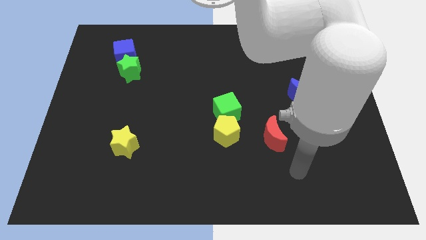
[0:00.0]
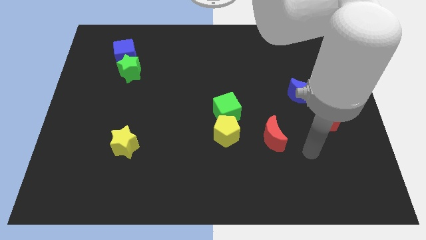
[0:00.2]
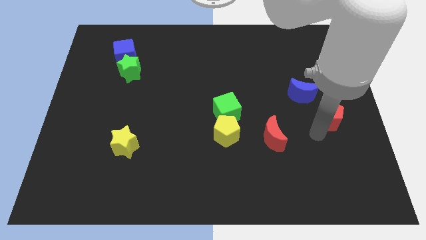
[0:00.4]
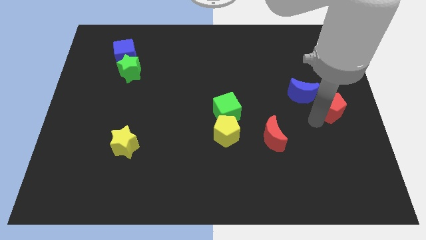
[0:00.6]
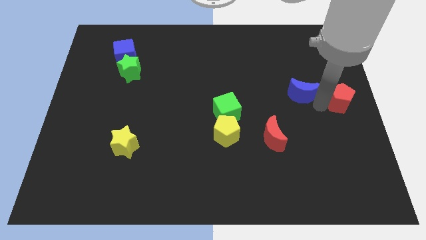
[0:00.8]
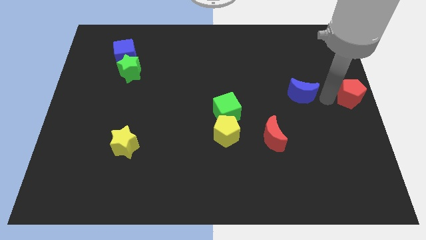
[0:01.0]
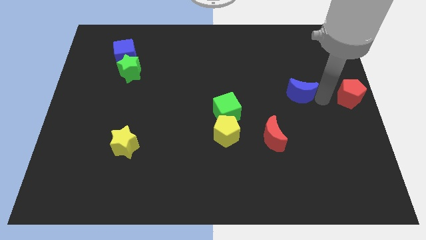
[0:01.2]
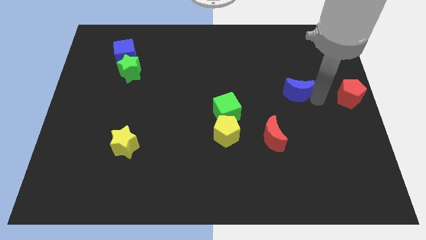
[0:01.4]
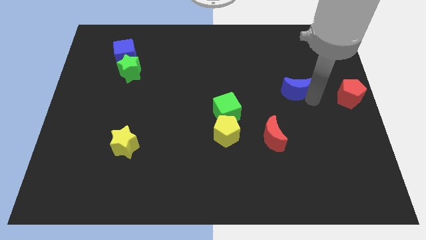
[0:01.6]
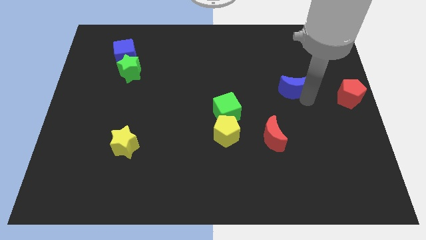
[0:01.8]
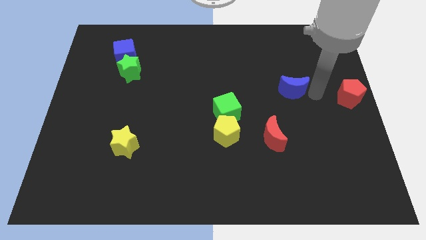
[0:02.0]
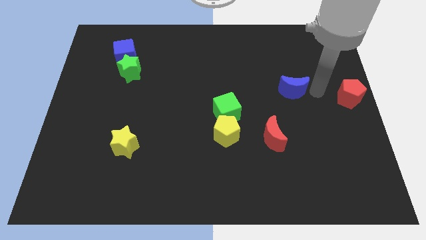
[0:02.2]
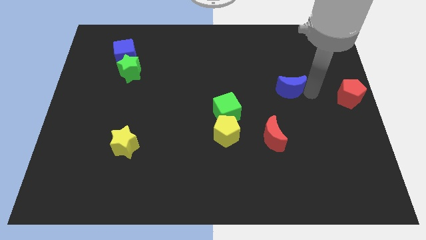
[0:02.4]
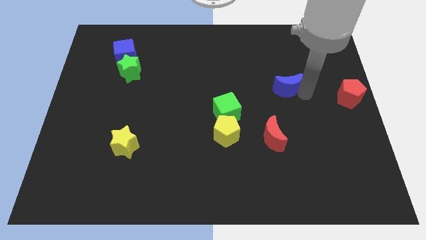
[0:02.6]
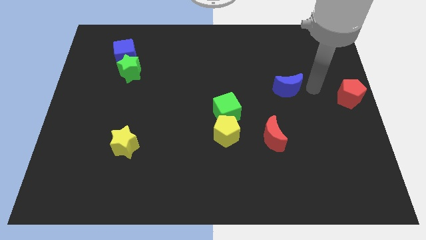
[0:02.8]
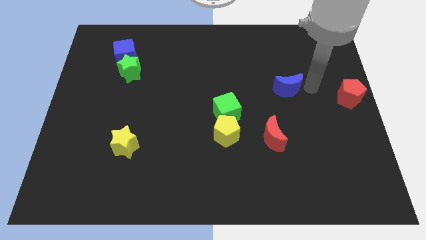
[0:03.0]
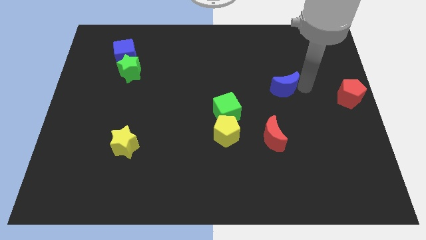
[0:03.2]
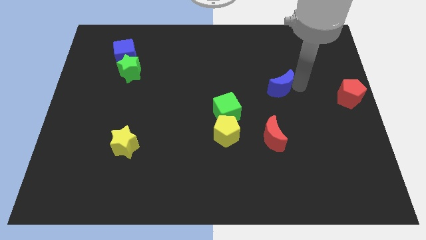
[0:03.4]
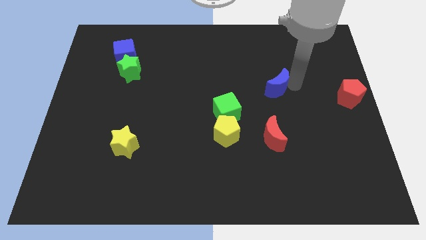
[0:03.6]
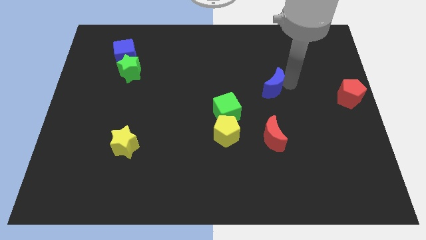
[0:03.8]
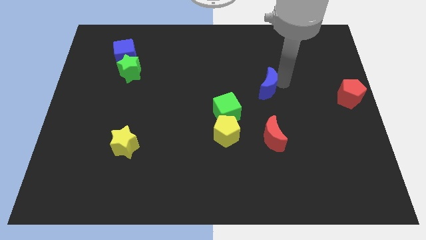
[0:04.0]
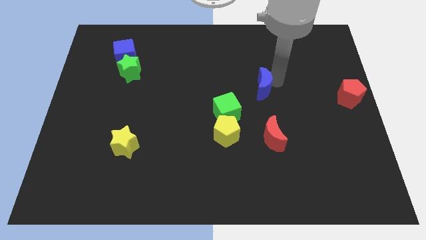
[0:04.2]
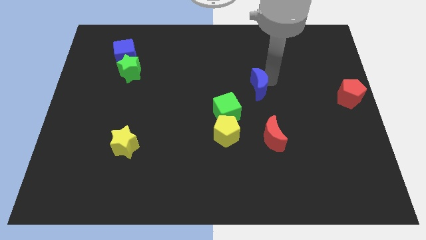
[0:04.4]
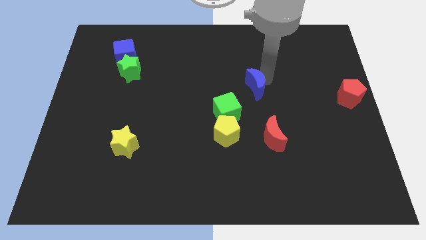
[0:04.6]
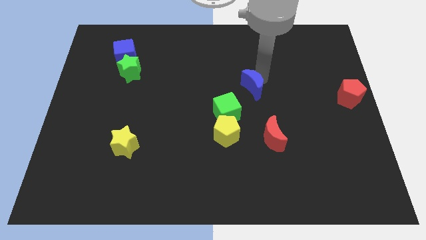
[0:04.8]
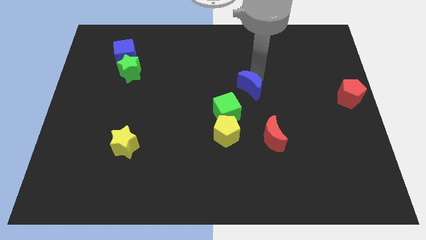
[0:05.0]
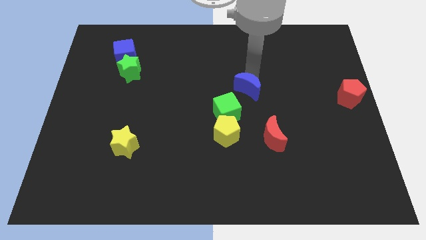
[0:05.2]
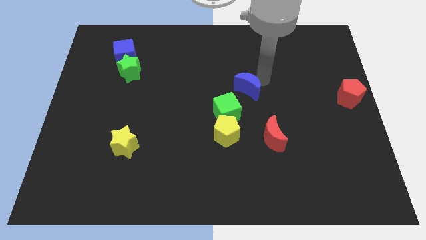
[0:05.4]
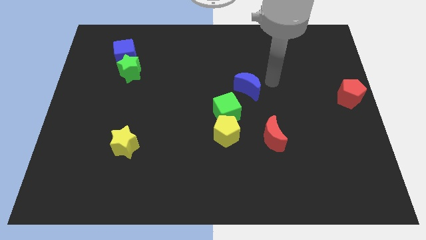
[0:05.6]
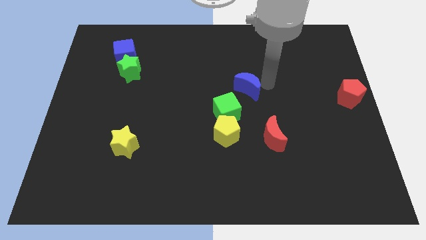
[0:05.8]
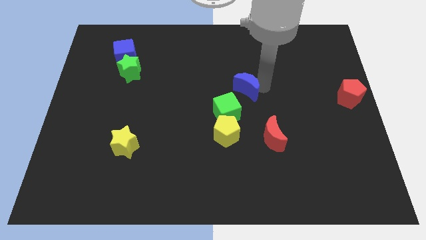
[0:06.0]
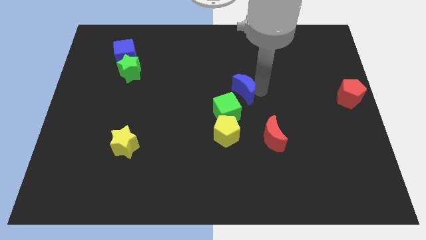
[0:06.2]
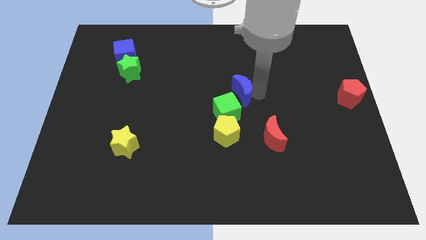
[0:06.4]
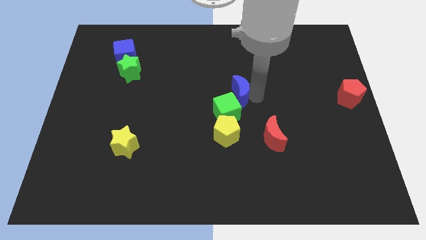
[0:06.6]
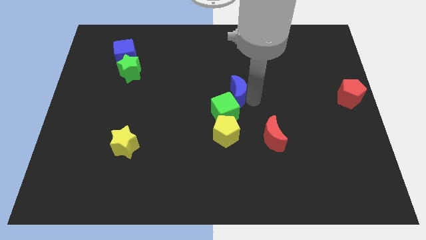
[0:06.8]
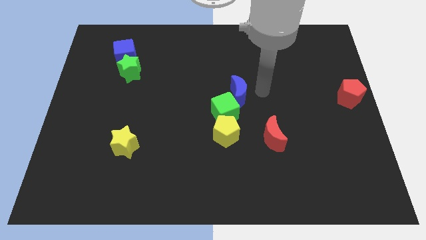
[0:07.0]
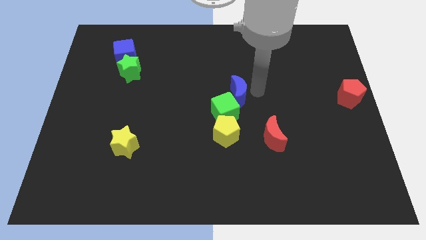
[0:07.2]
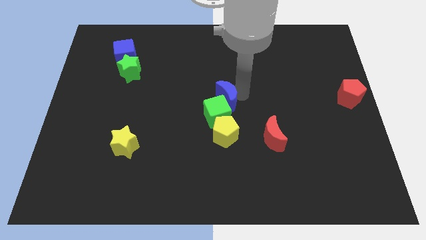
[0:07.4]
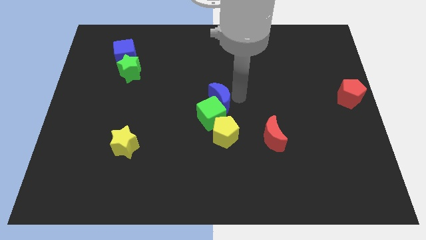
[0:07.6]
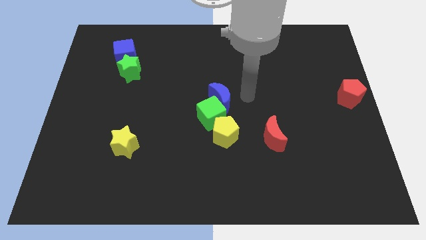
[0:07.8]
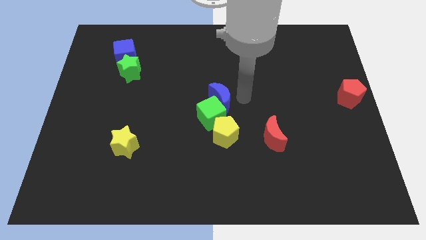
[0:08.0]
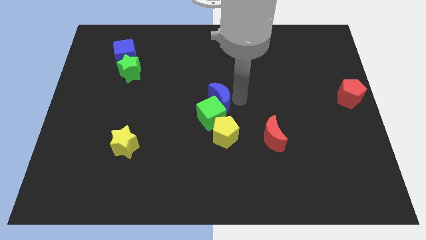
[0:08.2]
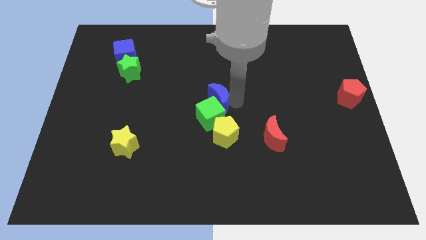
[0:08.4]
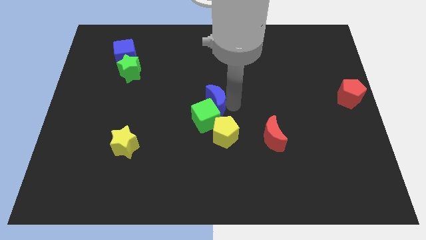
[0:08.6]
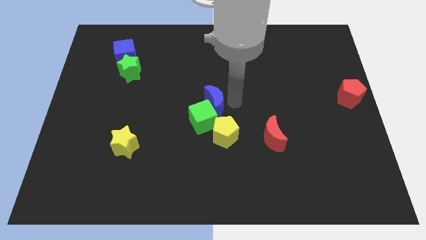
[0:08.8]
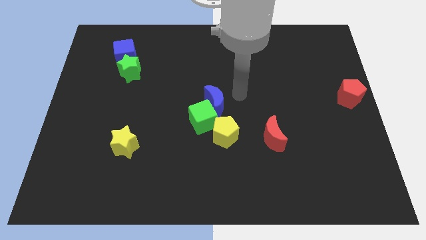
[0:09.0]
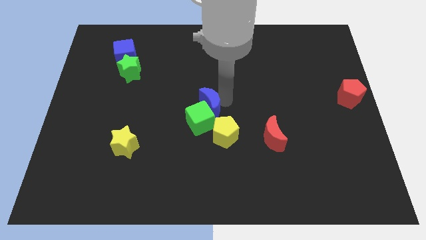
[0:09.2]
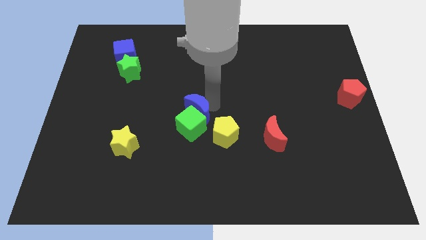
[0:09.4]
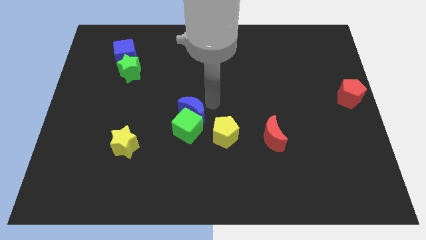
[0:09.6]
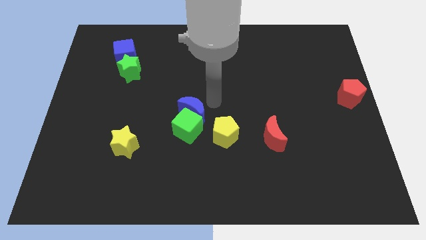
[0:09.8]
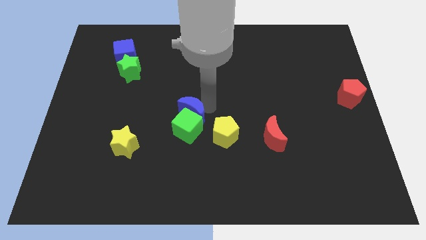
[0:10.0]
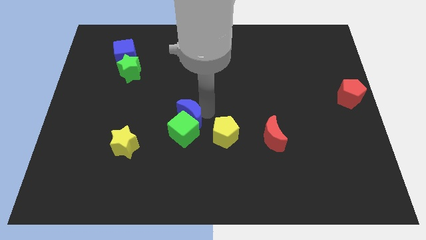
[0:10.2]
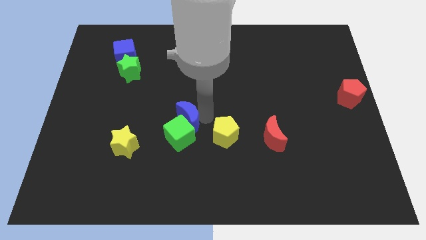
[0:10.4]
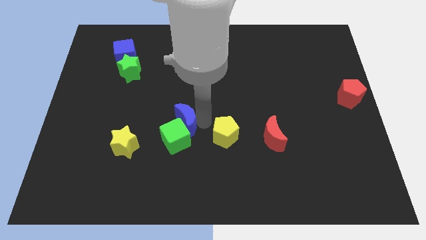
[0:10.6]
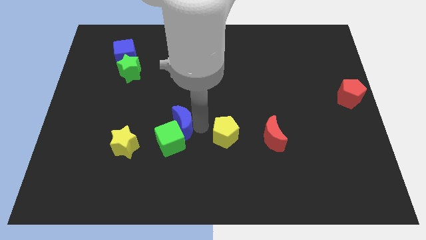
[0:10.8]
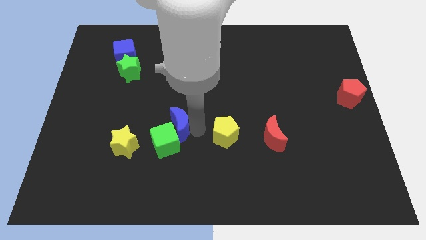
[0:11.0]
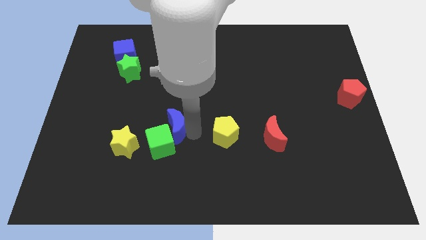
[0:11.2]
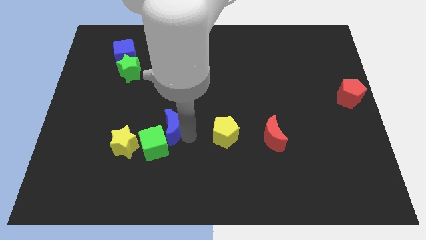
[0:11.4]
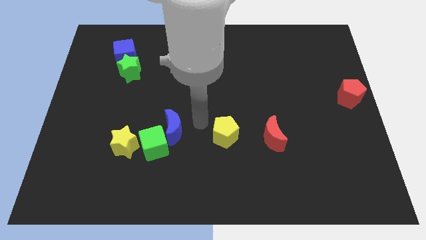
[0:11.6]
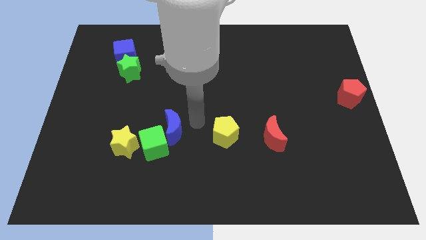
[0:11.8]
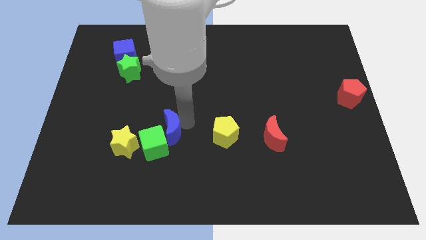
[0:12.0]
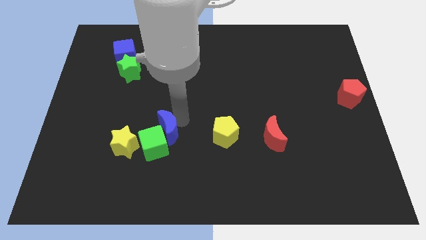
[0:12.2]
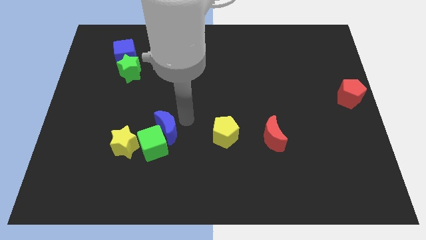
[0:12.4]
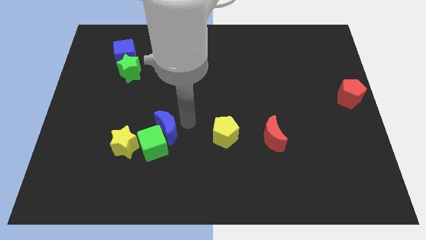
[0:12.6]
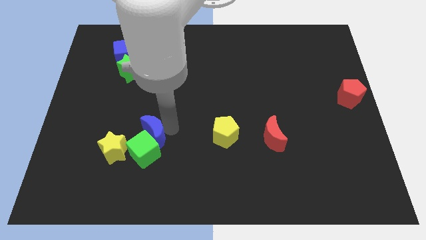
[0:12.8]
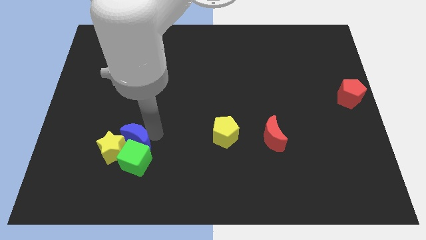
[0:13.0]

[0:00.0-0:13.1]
move the blue moon to the yellow star

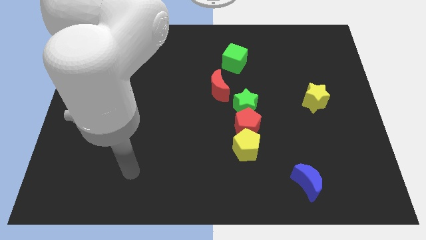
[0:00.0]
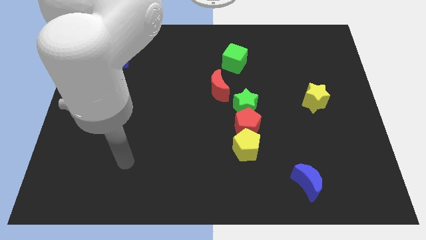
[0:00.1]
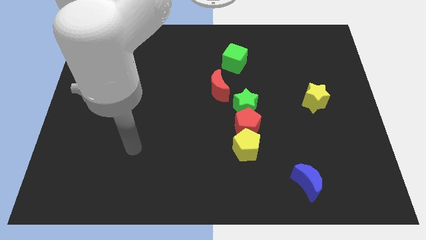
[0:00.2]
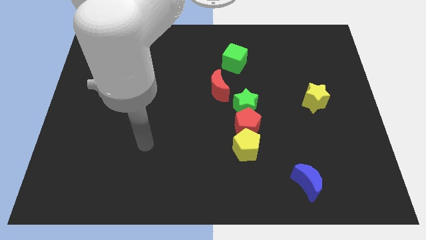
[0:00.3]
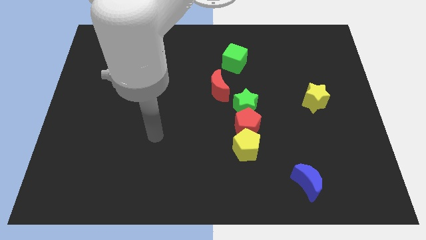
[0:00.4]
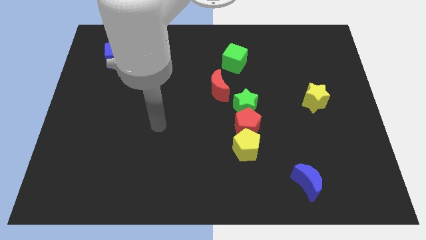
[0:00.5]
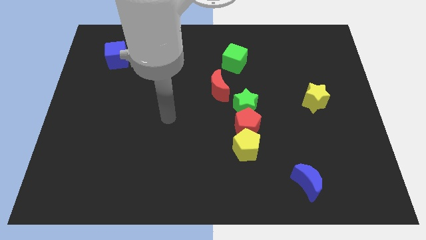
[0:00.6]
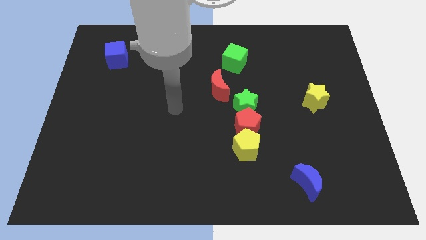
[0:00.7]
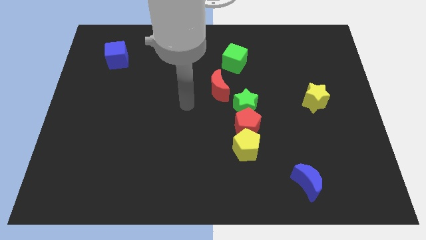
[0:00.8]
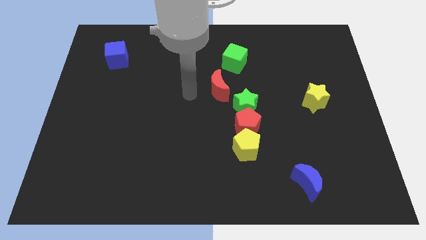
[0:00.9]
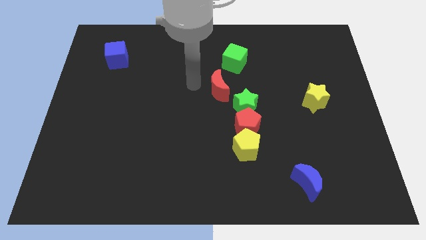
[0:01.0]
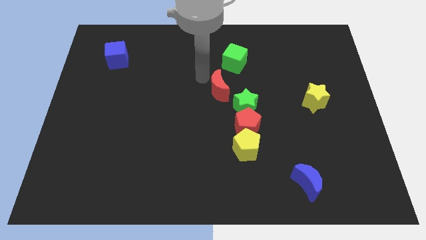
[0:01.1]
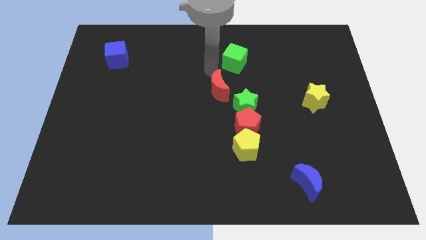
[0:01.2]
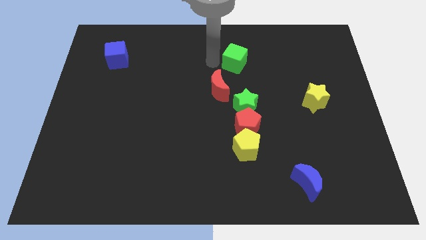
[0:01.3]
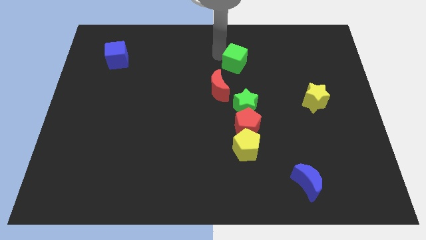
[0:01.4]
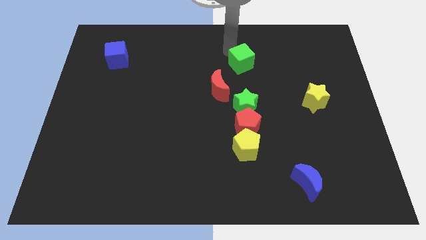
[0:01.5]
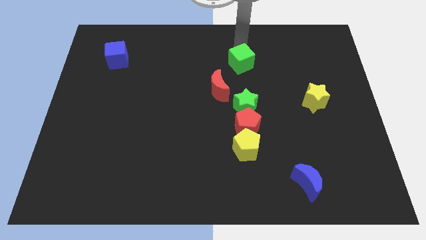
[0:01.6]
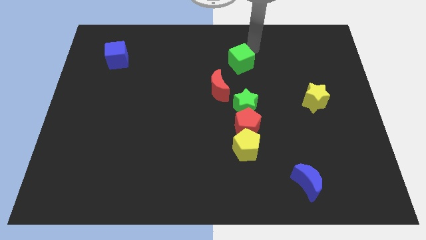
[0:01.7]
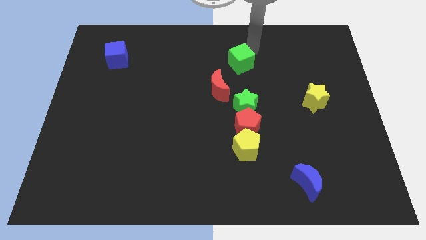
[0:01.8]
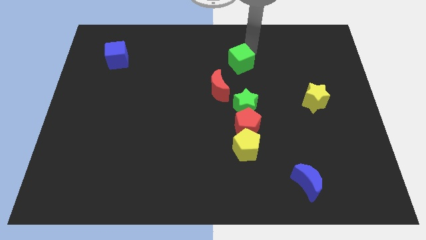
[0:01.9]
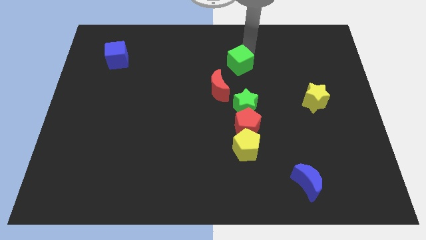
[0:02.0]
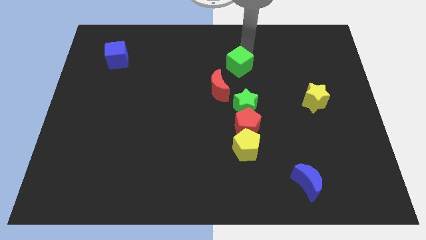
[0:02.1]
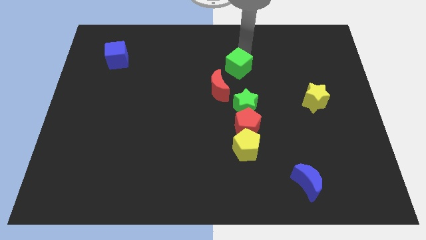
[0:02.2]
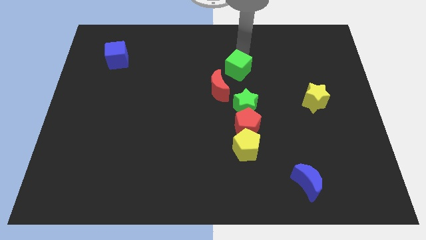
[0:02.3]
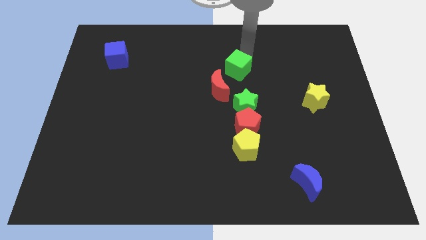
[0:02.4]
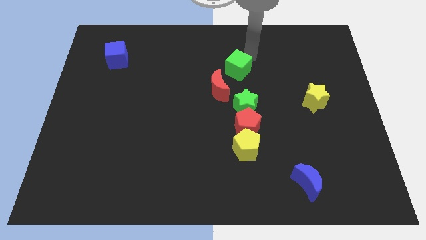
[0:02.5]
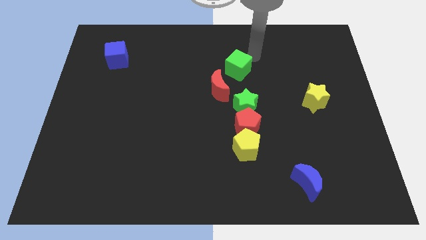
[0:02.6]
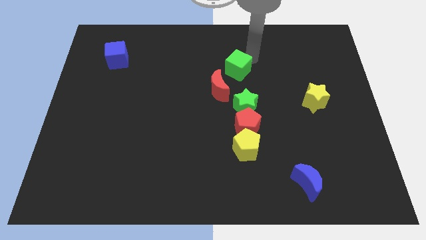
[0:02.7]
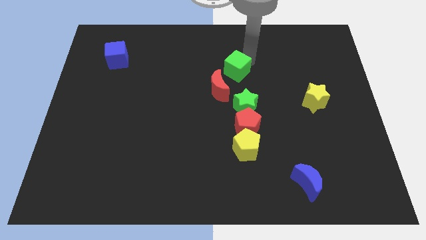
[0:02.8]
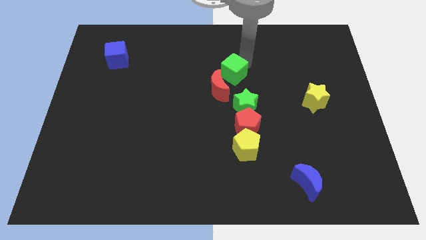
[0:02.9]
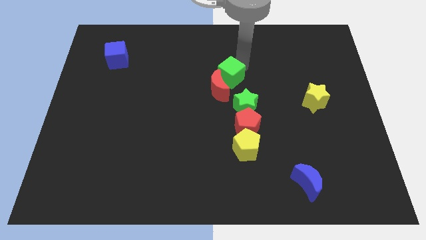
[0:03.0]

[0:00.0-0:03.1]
slide the green cube towards the red moon
